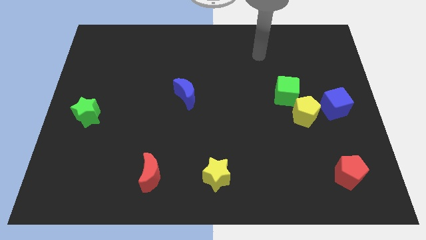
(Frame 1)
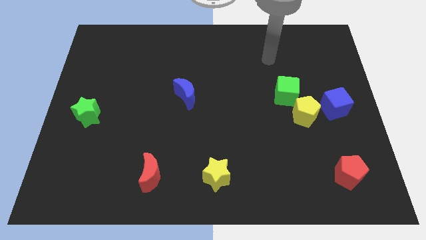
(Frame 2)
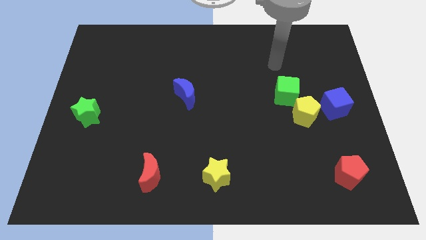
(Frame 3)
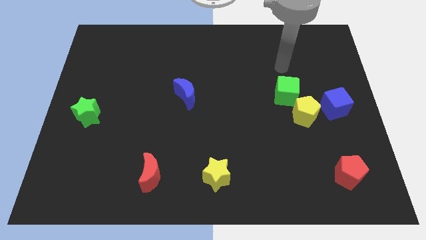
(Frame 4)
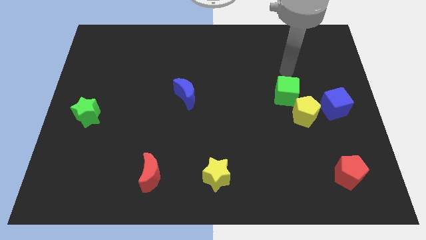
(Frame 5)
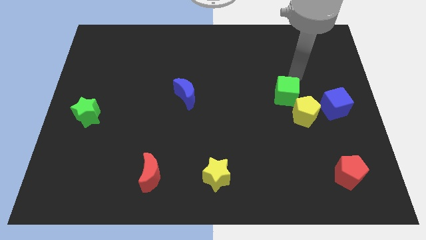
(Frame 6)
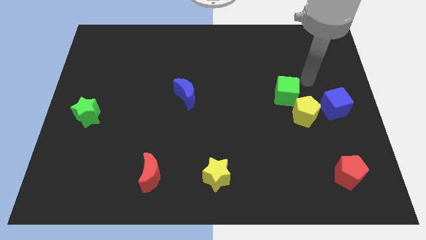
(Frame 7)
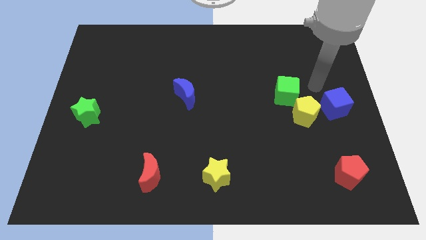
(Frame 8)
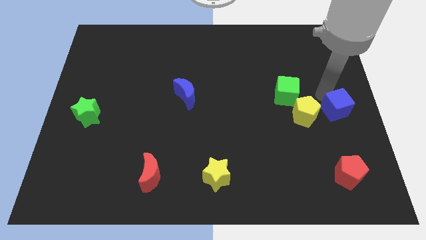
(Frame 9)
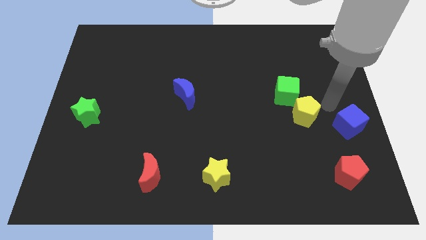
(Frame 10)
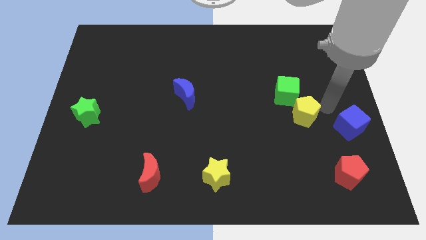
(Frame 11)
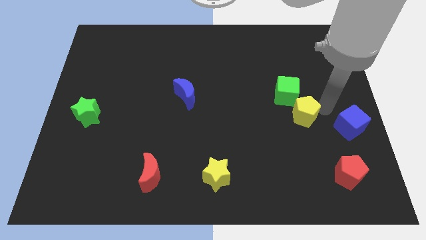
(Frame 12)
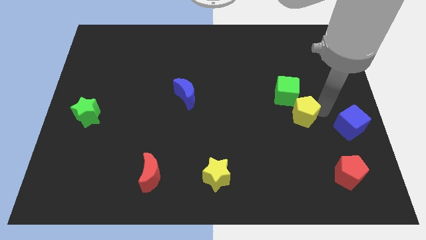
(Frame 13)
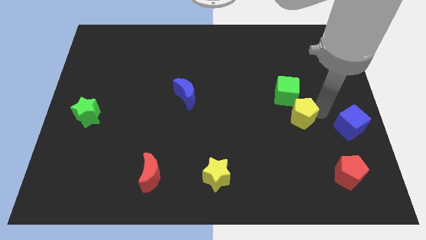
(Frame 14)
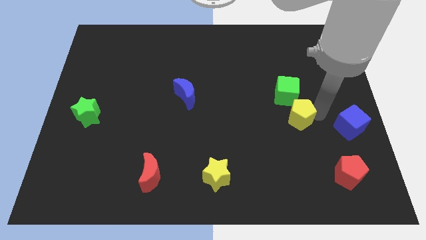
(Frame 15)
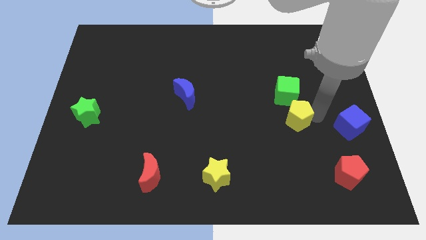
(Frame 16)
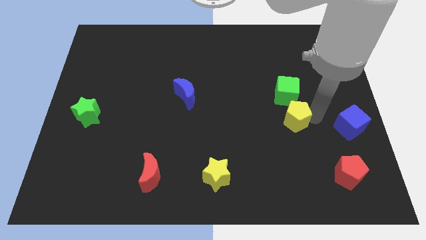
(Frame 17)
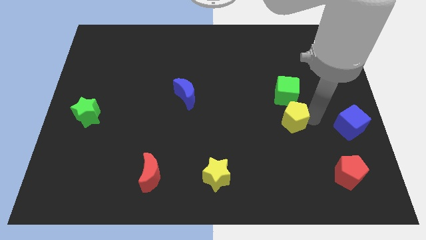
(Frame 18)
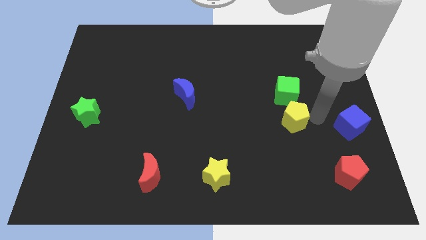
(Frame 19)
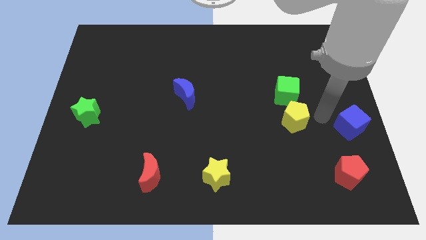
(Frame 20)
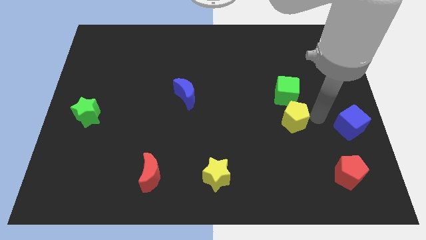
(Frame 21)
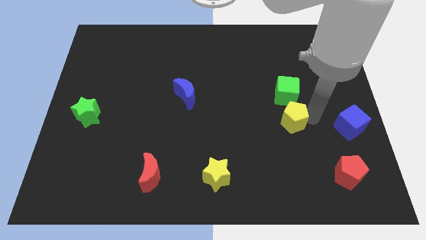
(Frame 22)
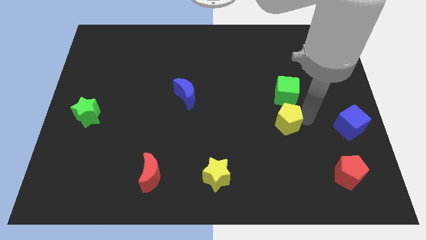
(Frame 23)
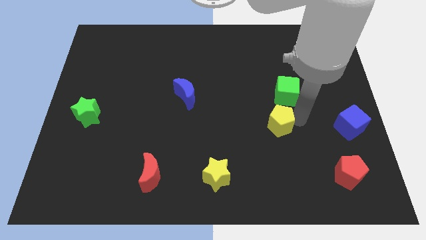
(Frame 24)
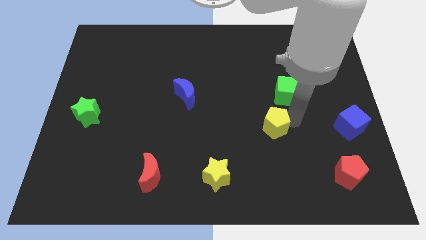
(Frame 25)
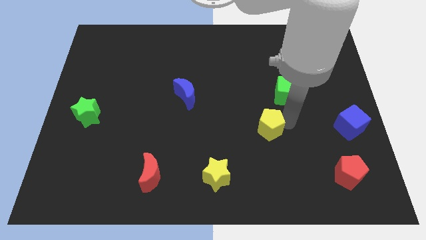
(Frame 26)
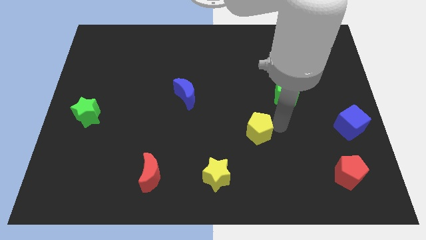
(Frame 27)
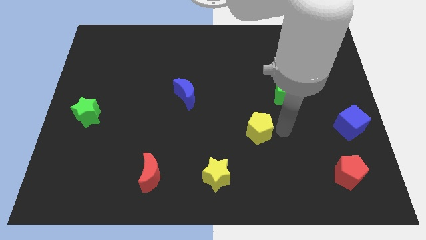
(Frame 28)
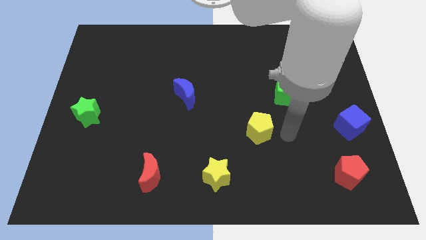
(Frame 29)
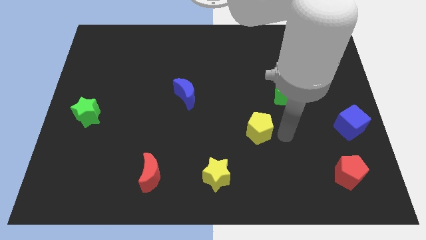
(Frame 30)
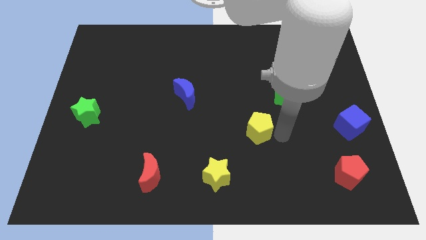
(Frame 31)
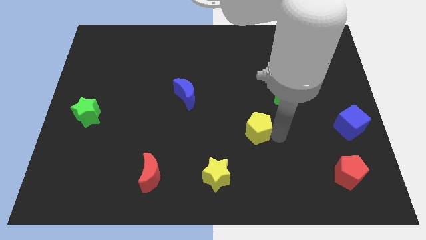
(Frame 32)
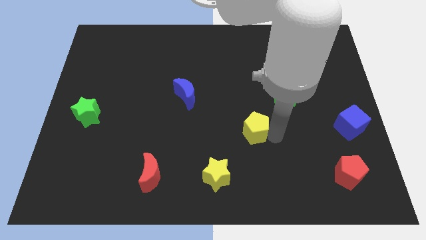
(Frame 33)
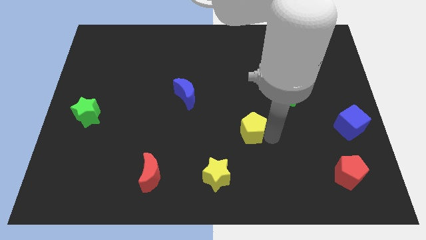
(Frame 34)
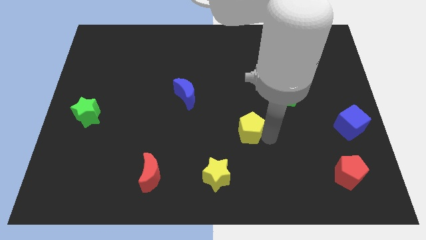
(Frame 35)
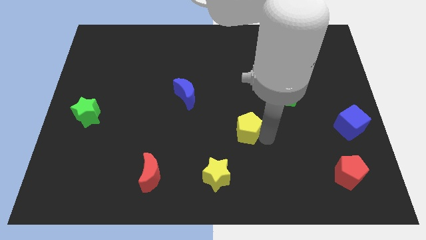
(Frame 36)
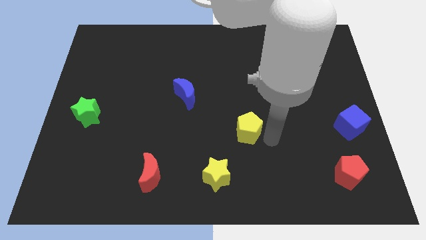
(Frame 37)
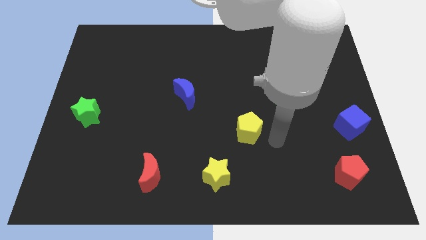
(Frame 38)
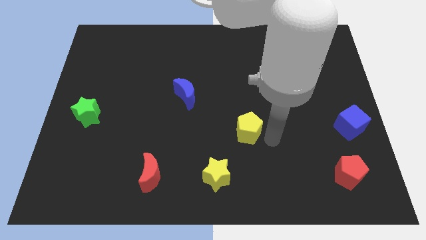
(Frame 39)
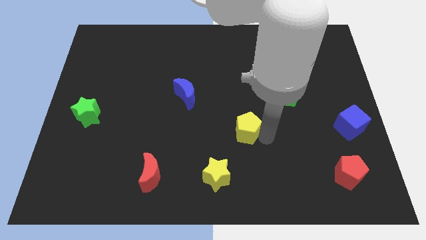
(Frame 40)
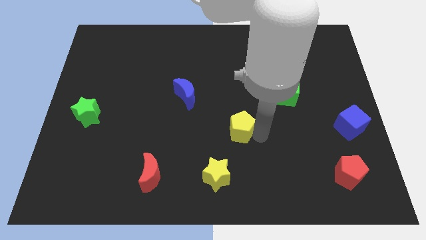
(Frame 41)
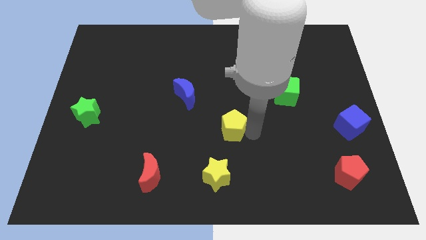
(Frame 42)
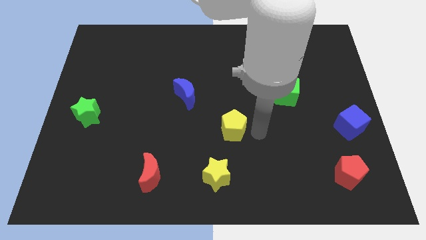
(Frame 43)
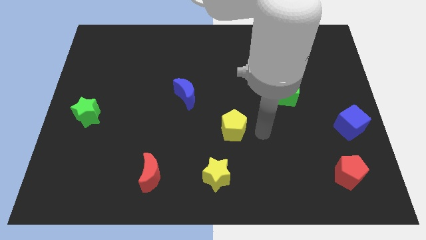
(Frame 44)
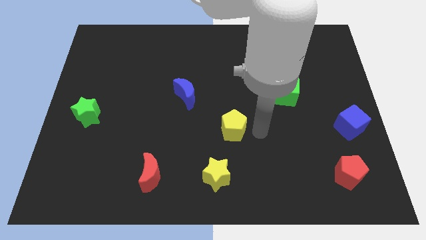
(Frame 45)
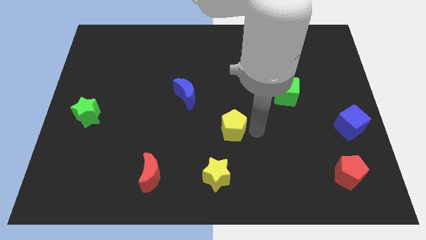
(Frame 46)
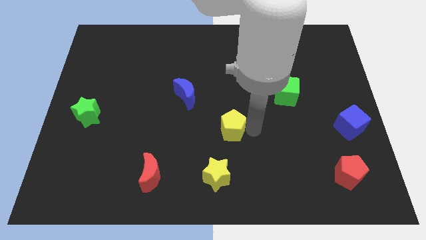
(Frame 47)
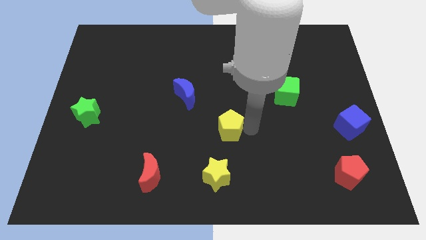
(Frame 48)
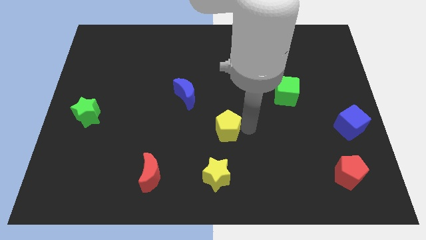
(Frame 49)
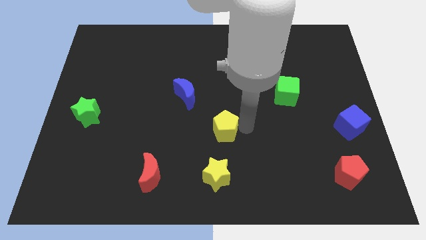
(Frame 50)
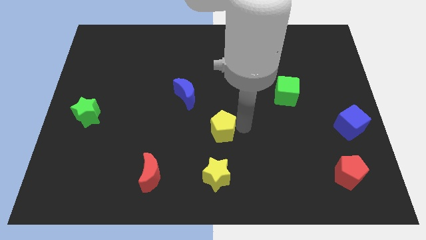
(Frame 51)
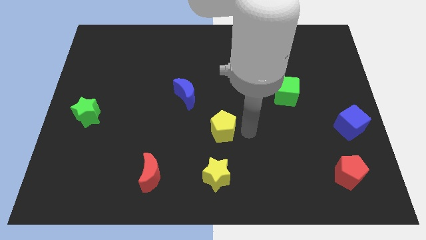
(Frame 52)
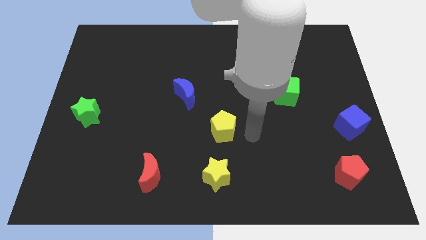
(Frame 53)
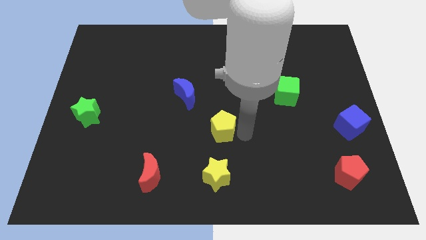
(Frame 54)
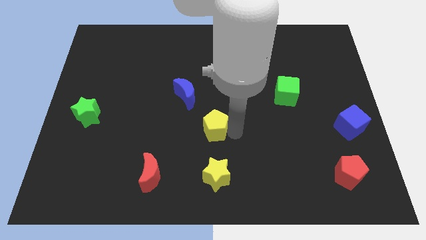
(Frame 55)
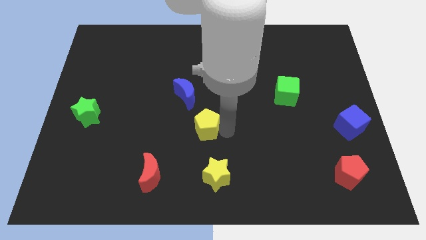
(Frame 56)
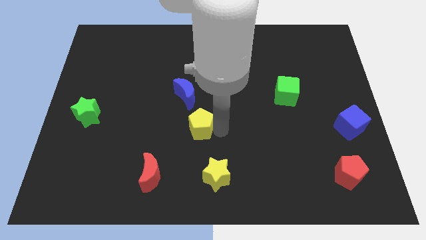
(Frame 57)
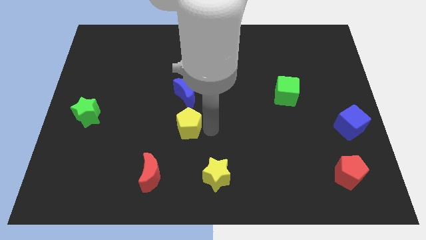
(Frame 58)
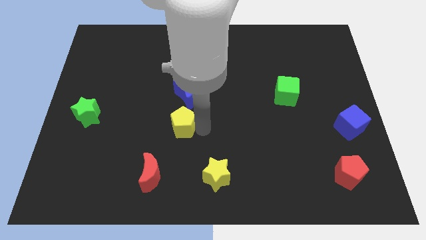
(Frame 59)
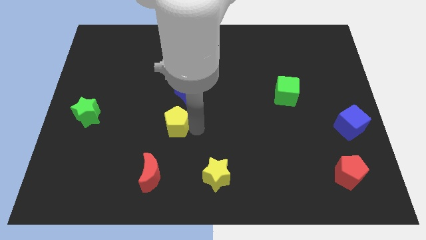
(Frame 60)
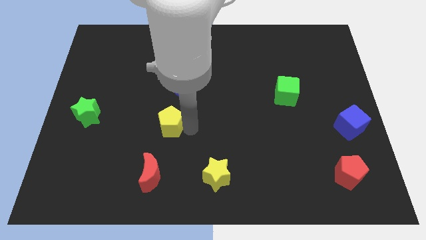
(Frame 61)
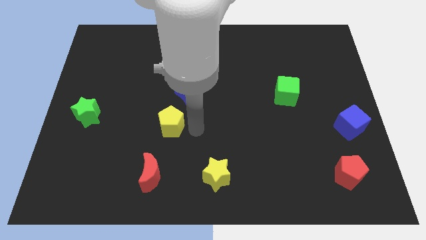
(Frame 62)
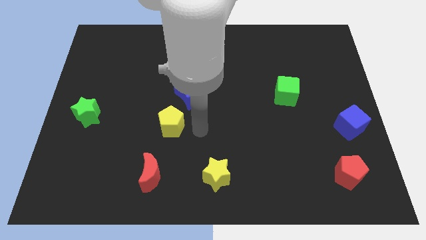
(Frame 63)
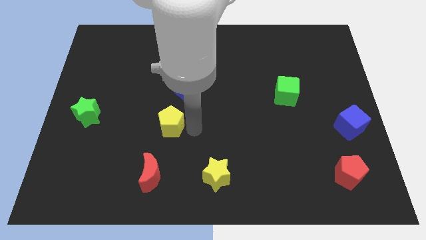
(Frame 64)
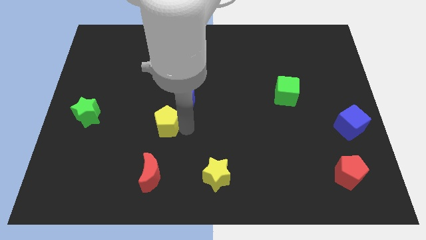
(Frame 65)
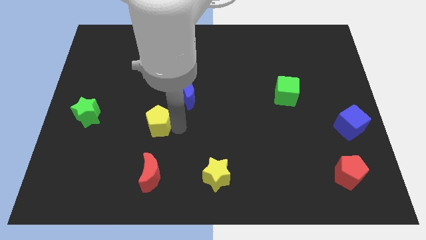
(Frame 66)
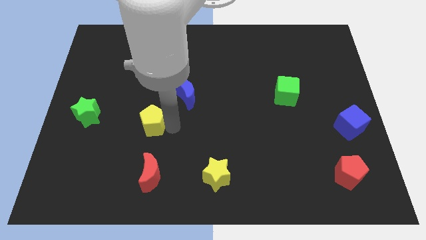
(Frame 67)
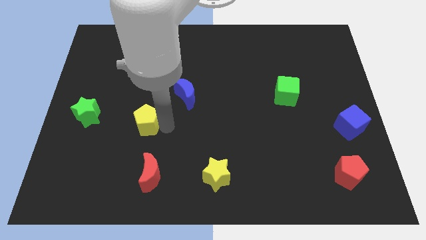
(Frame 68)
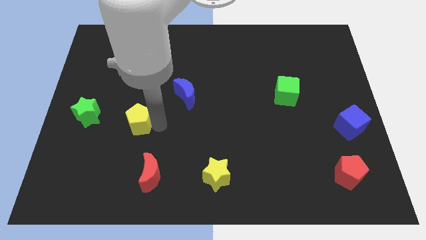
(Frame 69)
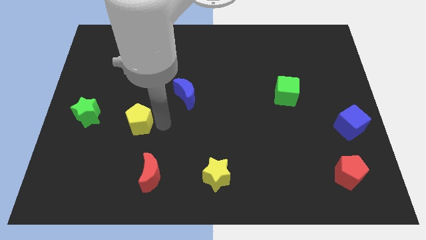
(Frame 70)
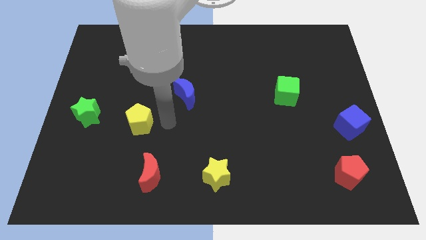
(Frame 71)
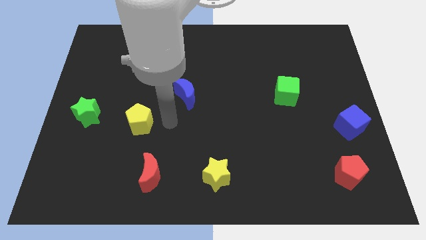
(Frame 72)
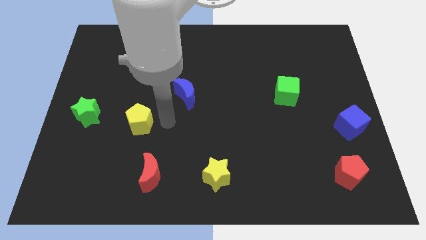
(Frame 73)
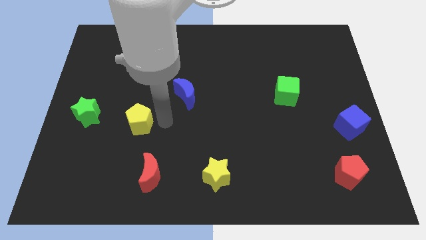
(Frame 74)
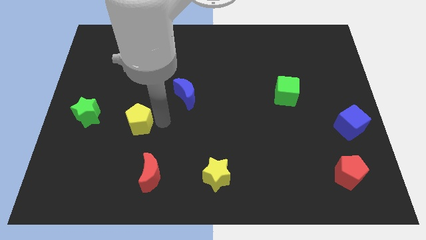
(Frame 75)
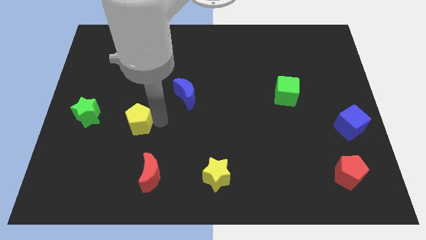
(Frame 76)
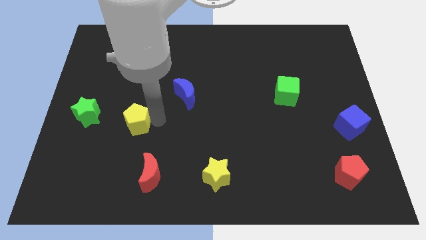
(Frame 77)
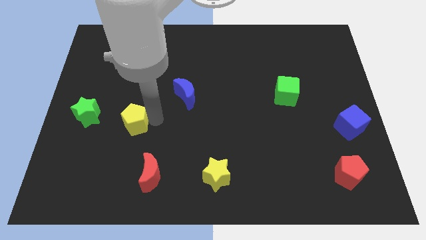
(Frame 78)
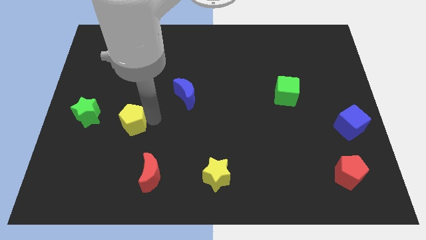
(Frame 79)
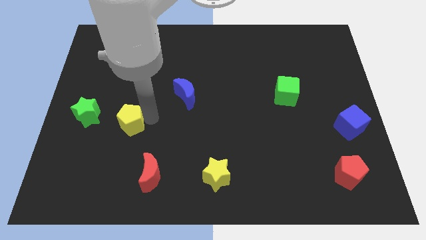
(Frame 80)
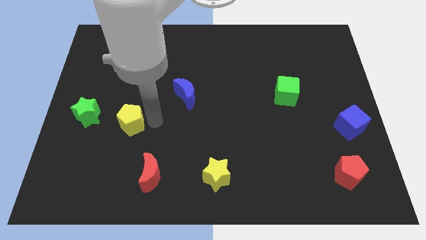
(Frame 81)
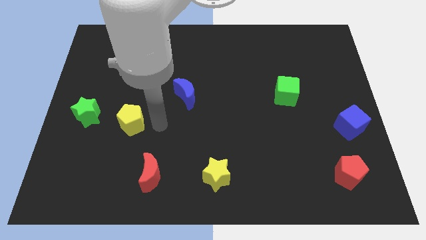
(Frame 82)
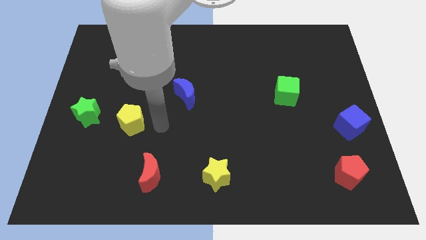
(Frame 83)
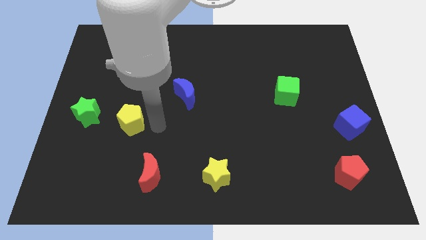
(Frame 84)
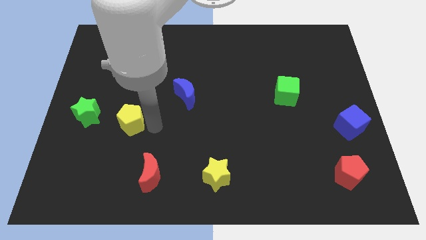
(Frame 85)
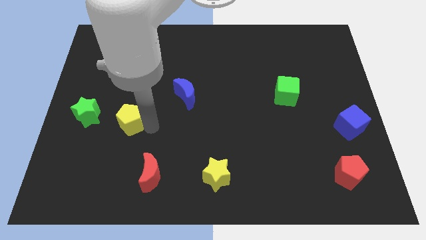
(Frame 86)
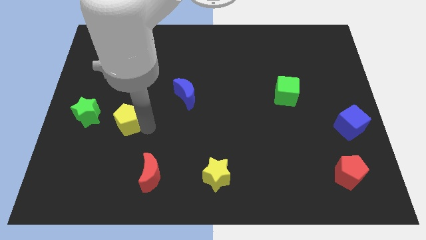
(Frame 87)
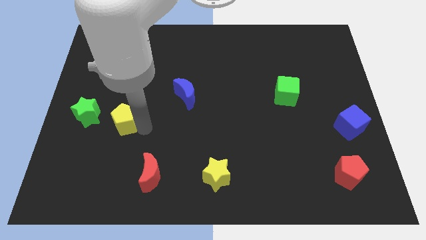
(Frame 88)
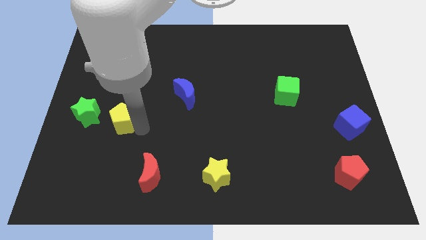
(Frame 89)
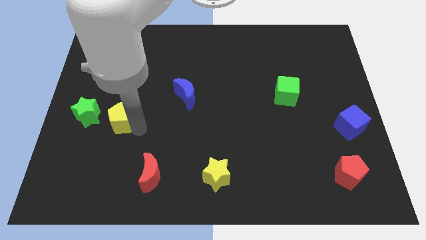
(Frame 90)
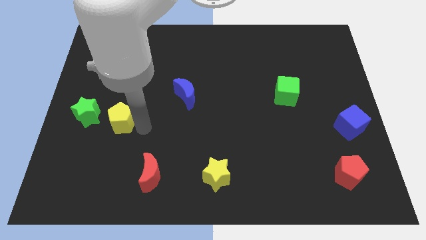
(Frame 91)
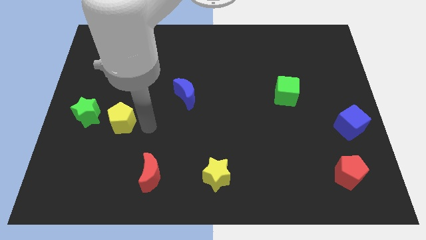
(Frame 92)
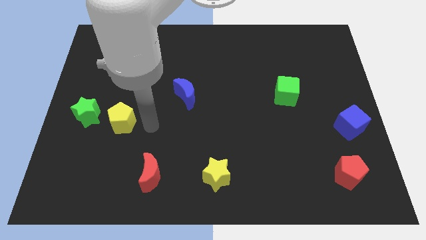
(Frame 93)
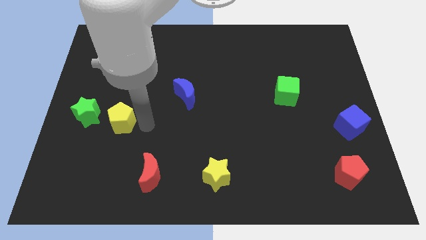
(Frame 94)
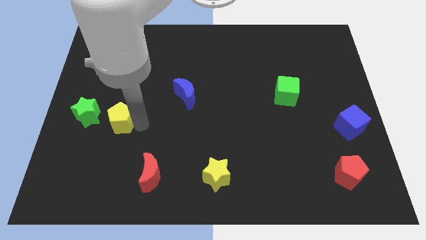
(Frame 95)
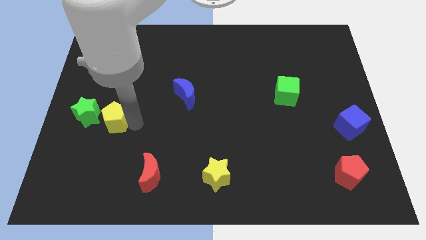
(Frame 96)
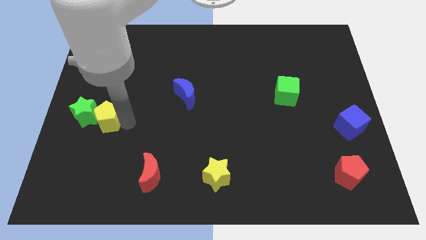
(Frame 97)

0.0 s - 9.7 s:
put the yellow pentagon next to the green star
